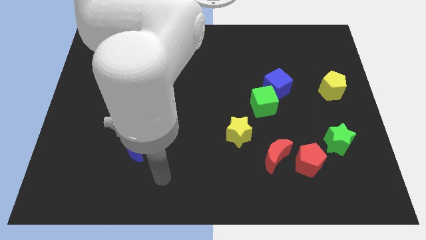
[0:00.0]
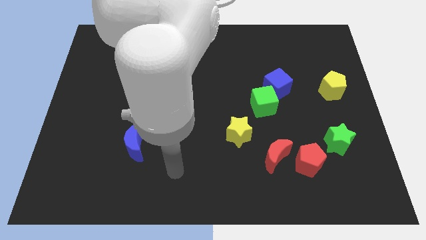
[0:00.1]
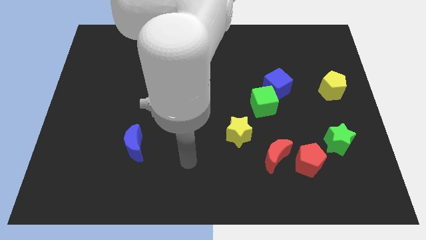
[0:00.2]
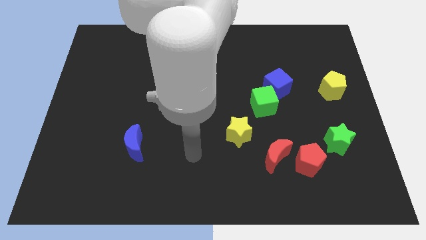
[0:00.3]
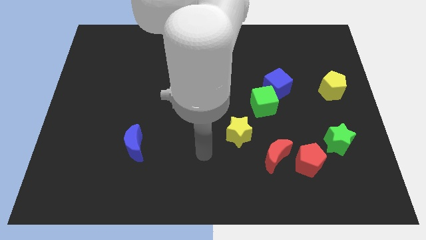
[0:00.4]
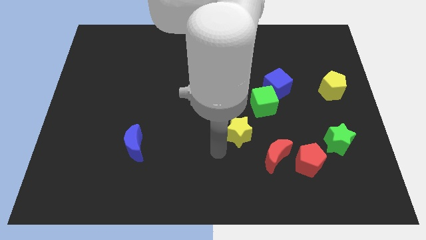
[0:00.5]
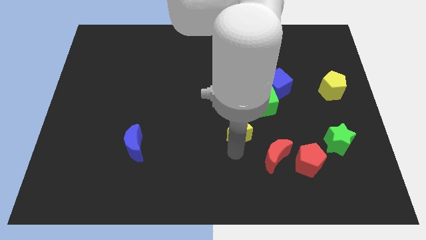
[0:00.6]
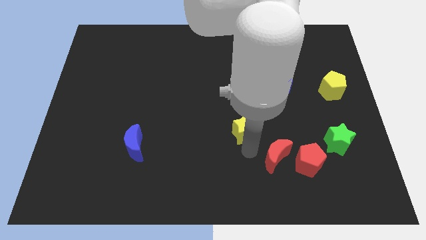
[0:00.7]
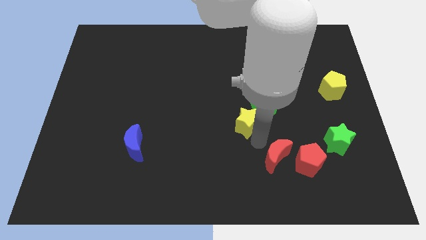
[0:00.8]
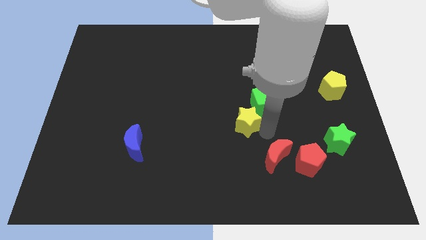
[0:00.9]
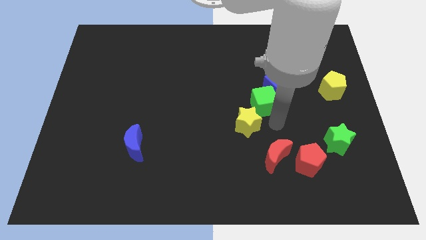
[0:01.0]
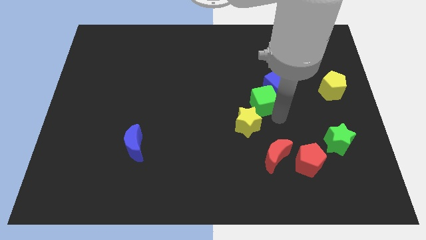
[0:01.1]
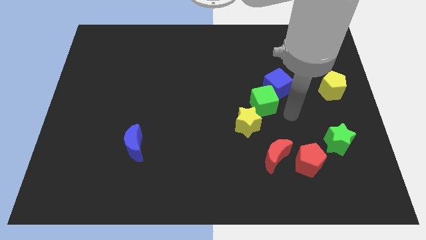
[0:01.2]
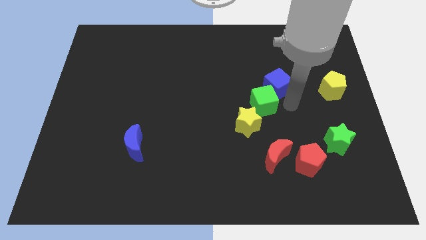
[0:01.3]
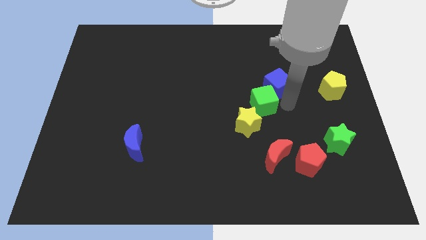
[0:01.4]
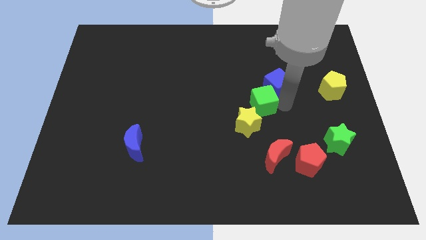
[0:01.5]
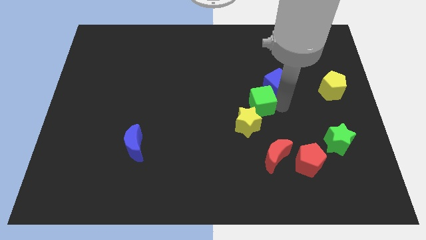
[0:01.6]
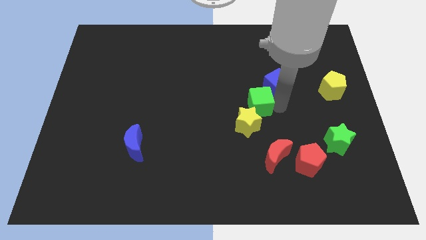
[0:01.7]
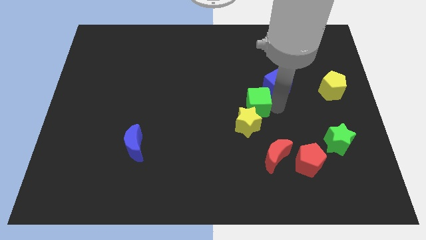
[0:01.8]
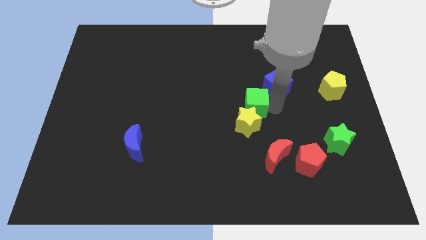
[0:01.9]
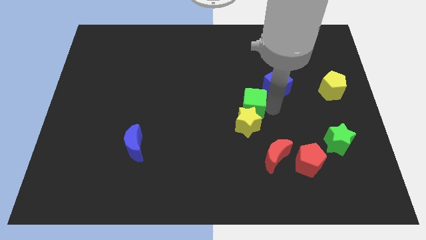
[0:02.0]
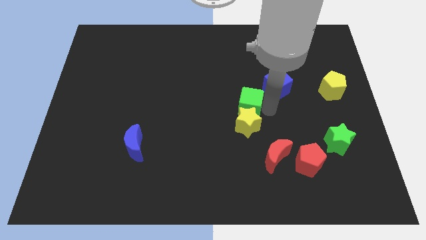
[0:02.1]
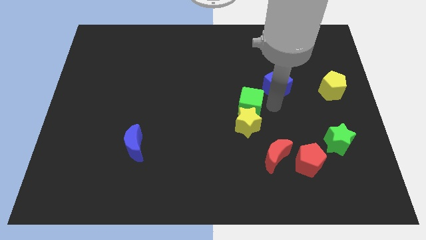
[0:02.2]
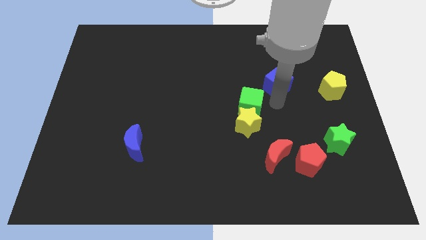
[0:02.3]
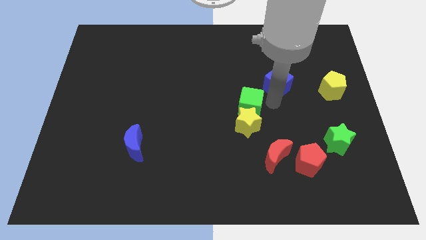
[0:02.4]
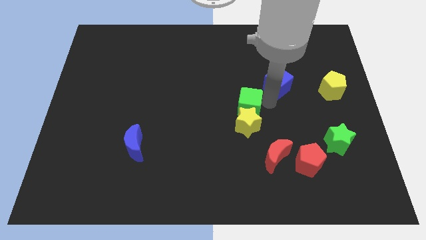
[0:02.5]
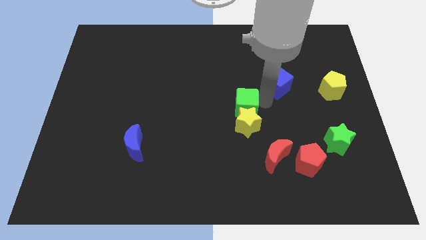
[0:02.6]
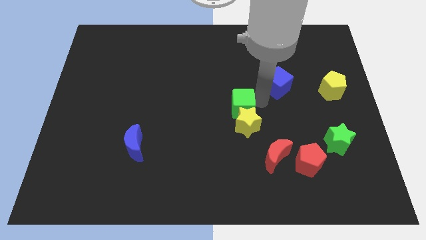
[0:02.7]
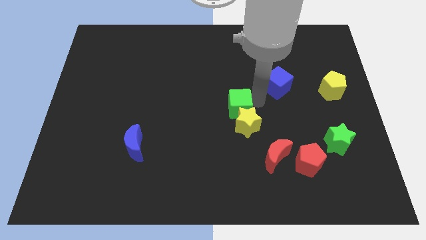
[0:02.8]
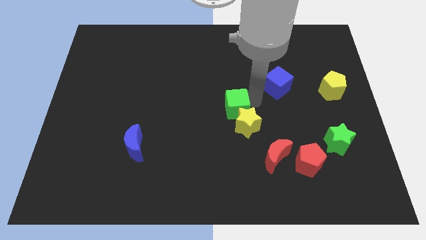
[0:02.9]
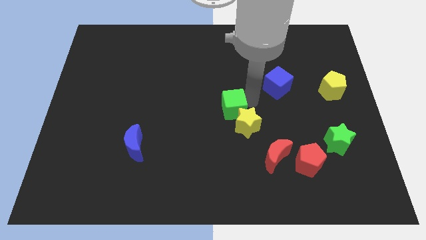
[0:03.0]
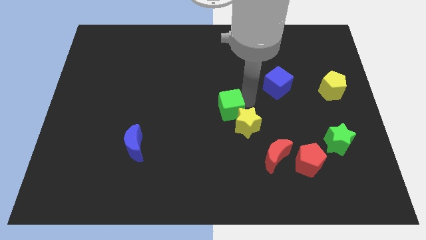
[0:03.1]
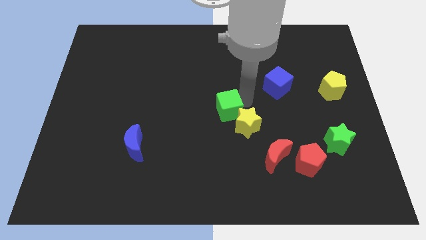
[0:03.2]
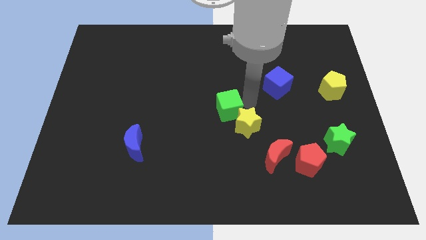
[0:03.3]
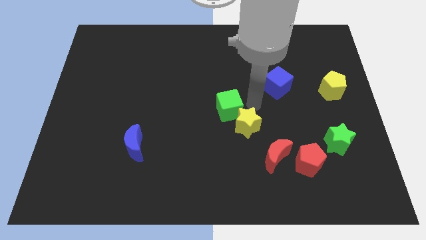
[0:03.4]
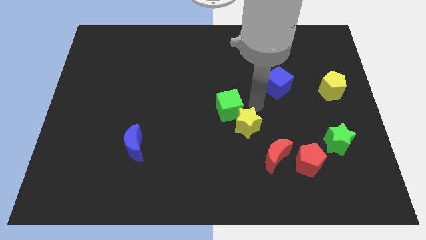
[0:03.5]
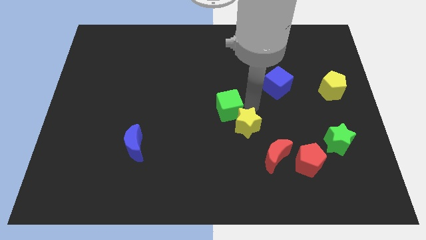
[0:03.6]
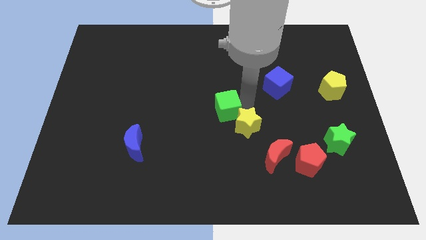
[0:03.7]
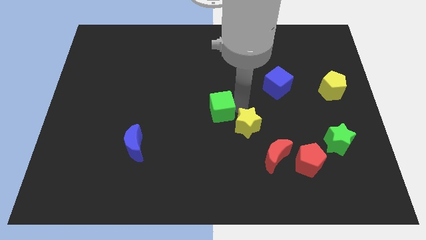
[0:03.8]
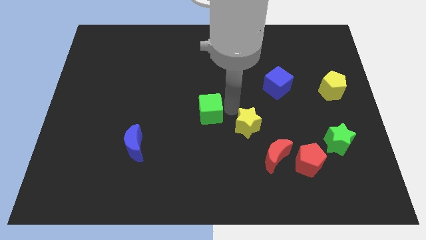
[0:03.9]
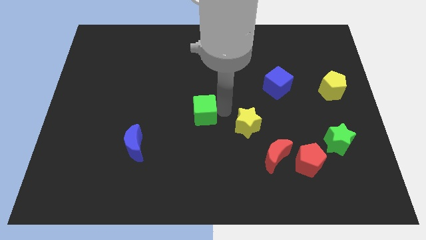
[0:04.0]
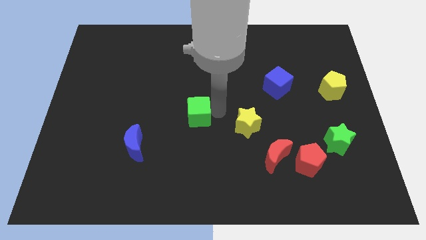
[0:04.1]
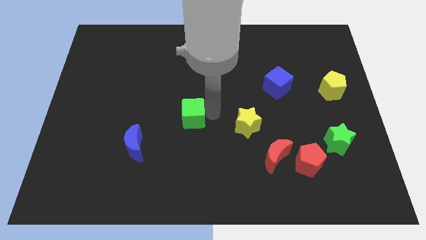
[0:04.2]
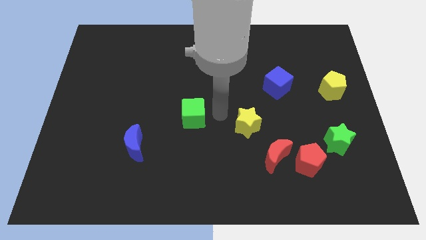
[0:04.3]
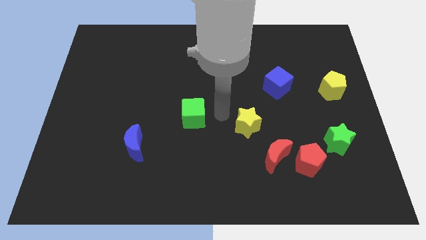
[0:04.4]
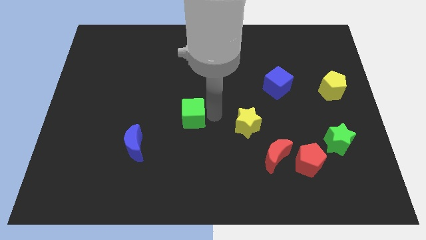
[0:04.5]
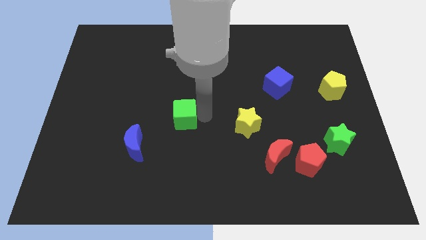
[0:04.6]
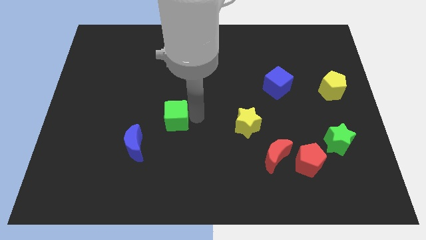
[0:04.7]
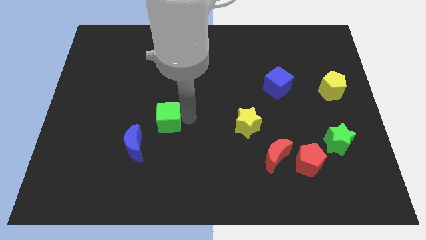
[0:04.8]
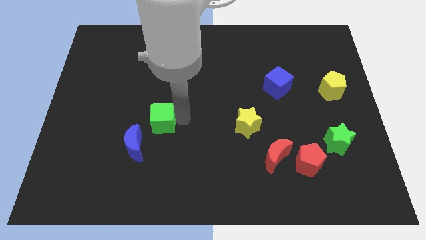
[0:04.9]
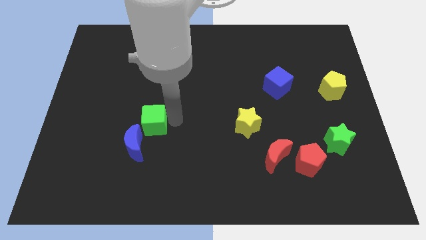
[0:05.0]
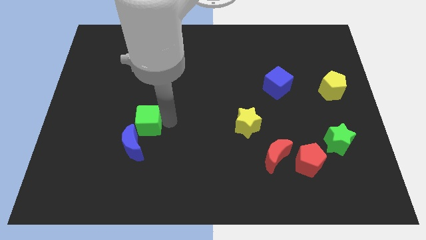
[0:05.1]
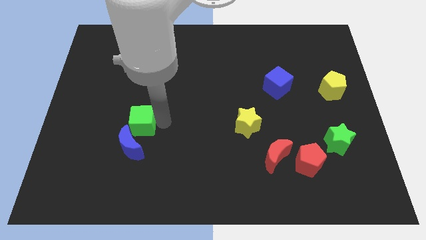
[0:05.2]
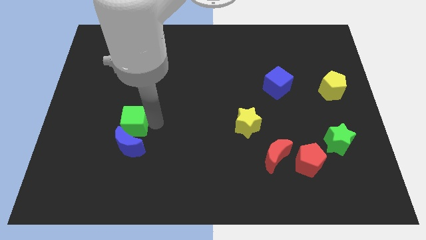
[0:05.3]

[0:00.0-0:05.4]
slide the green cube to the top left of the blue moon
